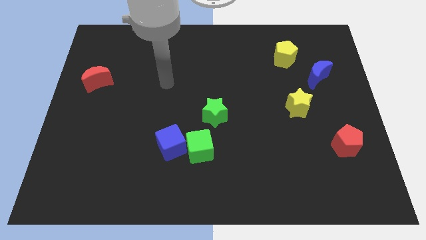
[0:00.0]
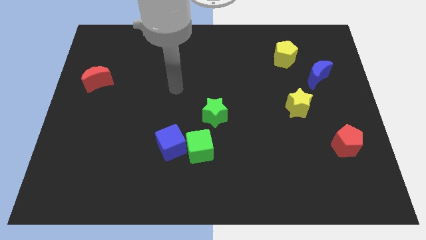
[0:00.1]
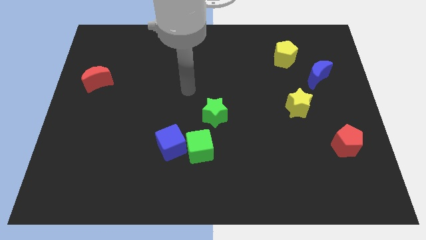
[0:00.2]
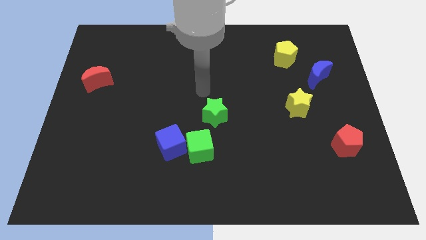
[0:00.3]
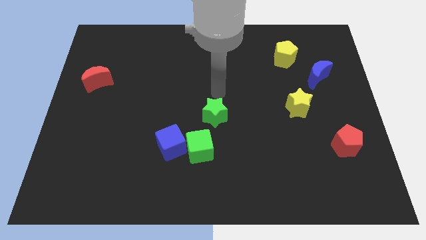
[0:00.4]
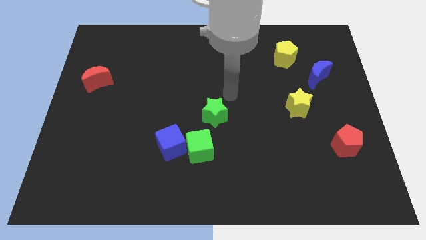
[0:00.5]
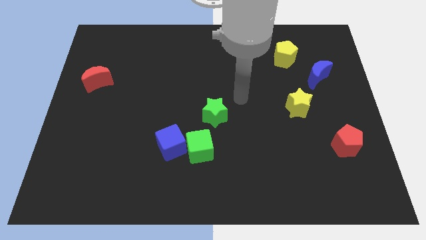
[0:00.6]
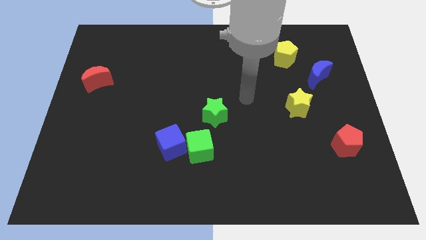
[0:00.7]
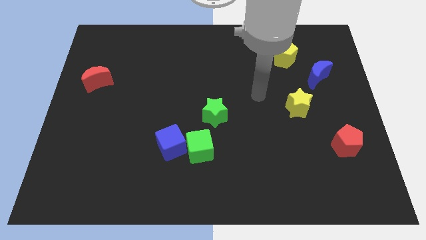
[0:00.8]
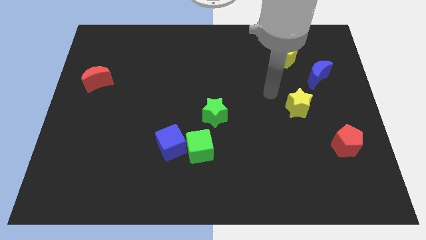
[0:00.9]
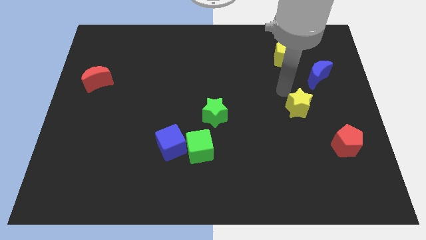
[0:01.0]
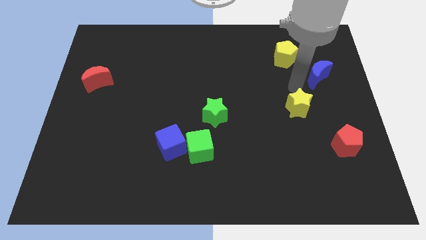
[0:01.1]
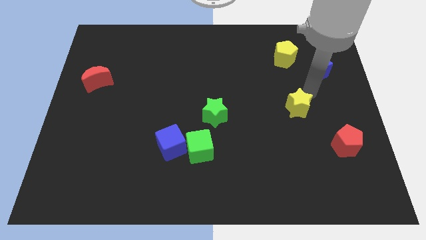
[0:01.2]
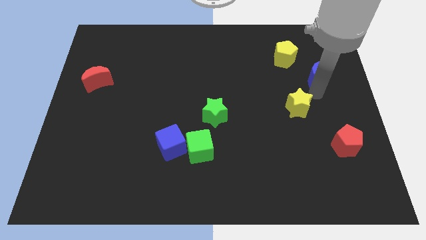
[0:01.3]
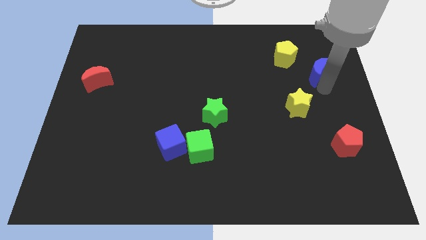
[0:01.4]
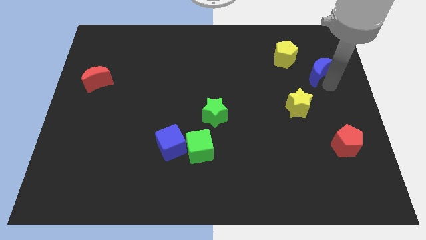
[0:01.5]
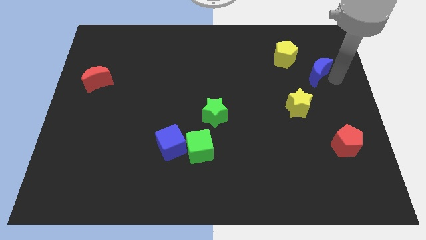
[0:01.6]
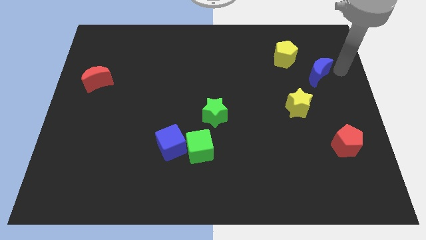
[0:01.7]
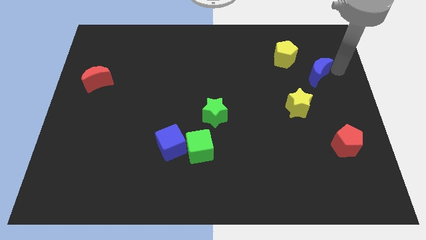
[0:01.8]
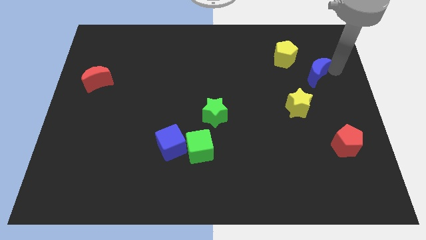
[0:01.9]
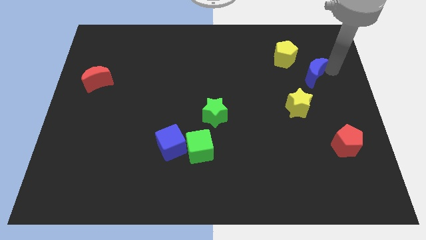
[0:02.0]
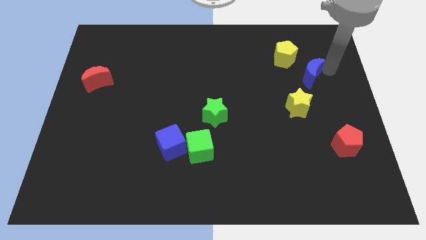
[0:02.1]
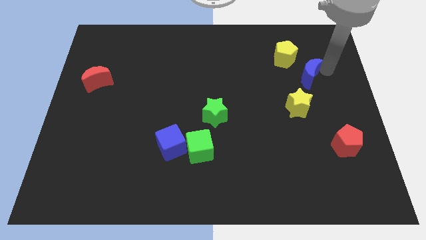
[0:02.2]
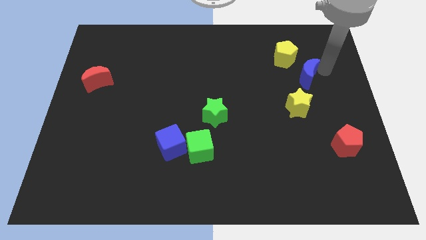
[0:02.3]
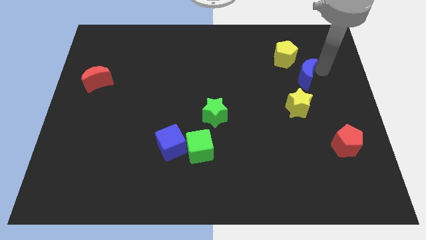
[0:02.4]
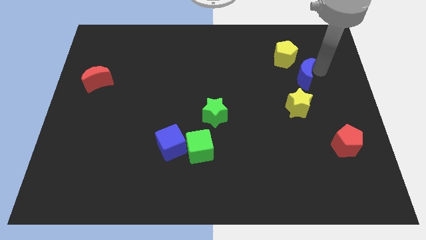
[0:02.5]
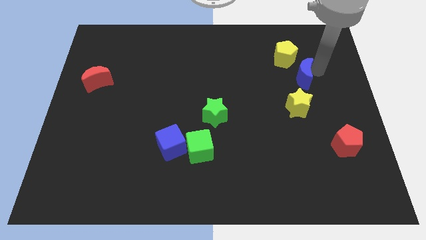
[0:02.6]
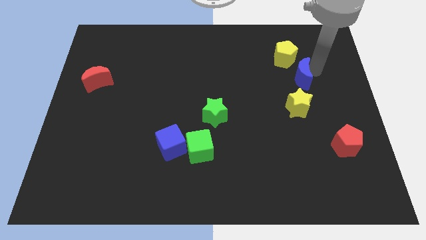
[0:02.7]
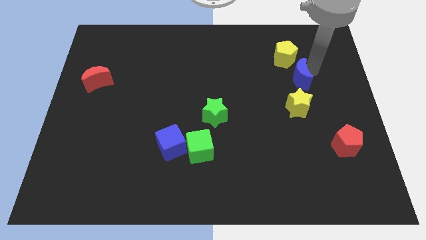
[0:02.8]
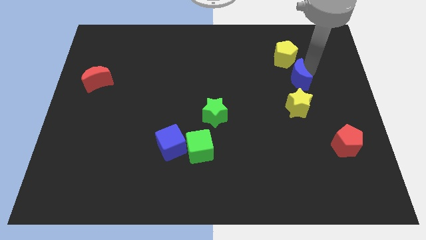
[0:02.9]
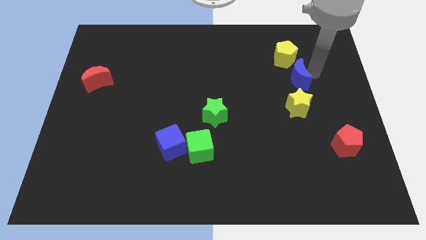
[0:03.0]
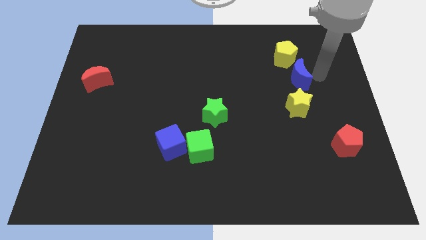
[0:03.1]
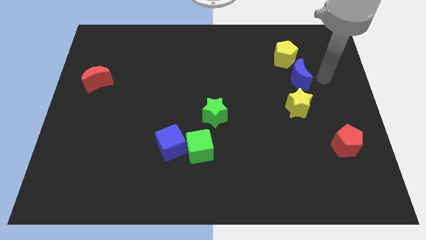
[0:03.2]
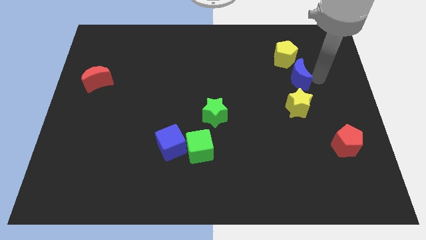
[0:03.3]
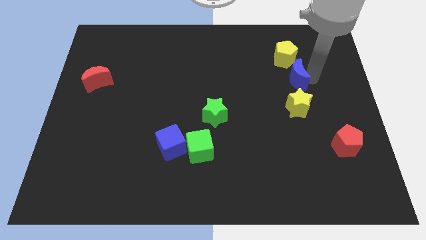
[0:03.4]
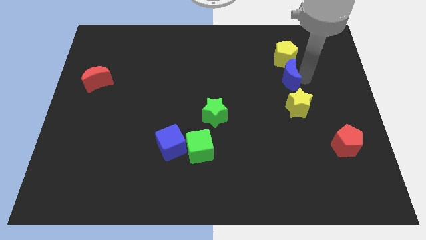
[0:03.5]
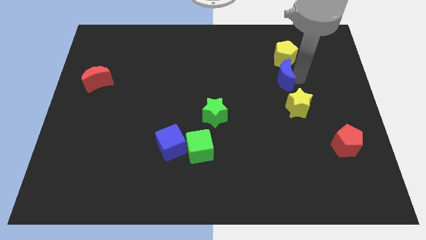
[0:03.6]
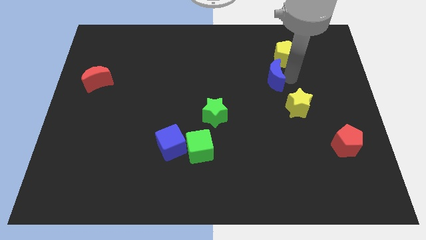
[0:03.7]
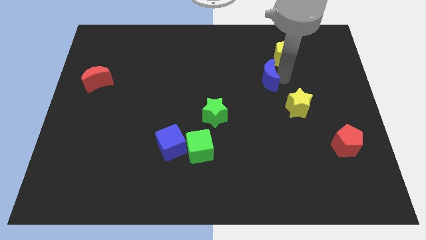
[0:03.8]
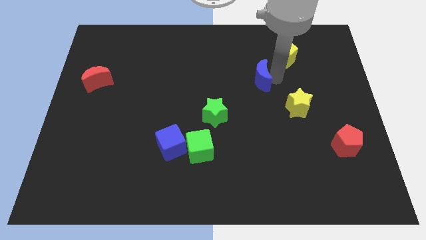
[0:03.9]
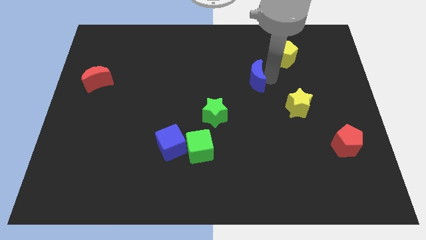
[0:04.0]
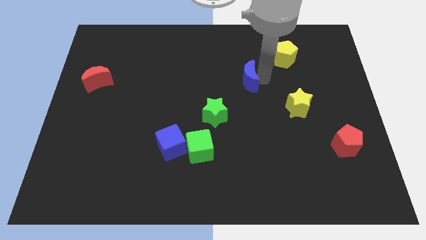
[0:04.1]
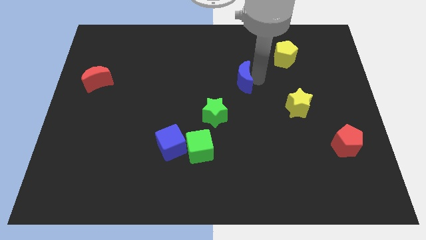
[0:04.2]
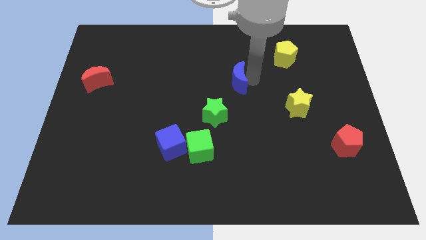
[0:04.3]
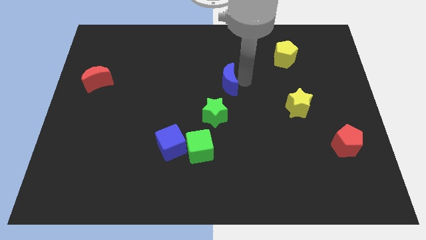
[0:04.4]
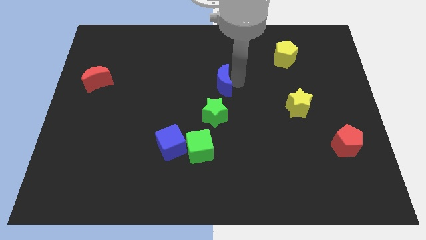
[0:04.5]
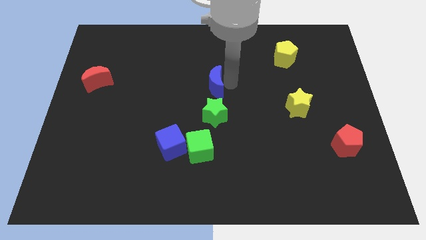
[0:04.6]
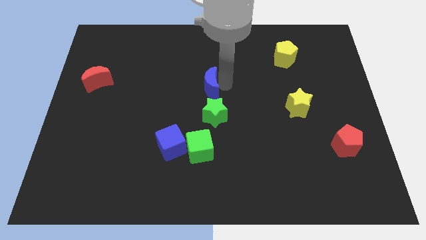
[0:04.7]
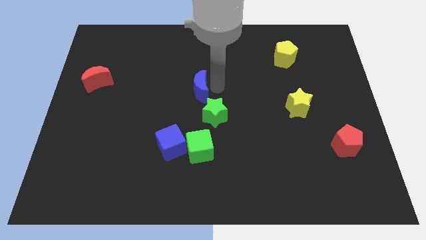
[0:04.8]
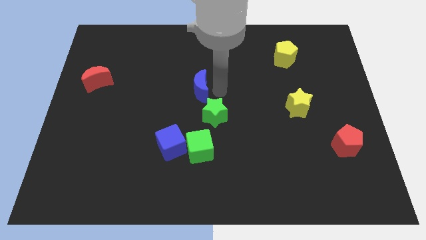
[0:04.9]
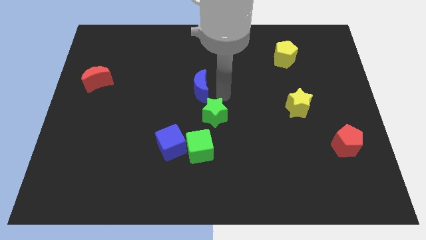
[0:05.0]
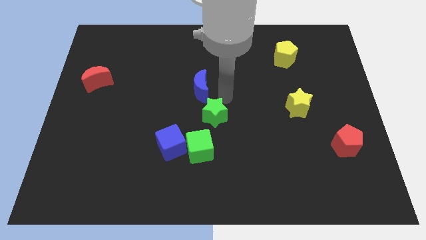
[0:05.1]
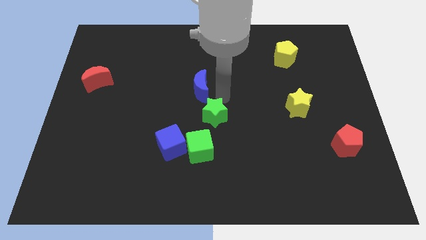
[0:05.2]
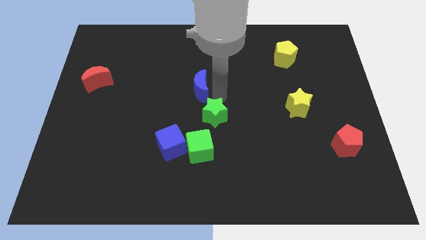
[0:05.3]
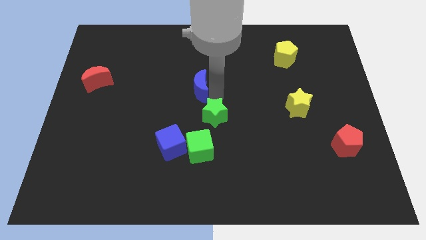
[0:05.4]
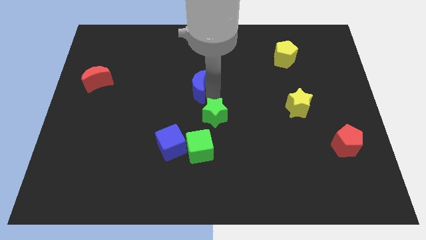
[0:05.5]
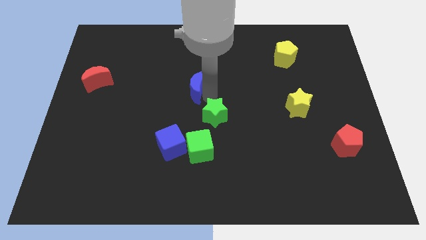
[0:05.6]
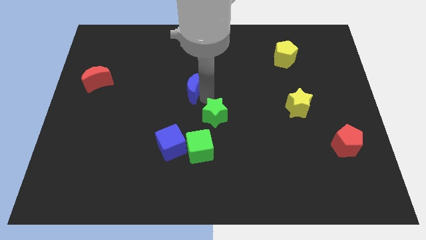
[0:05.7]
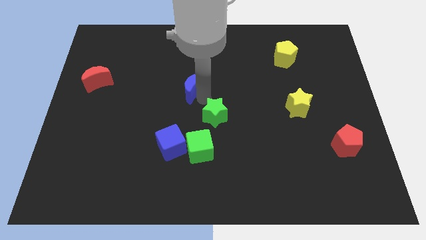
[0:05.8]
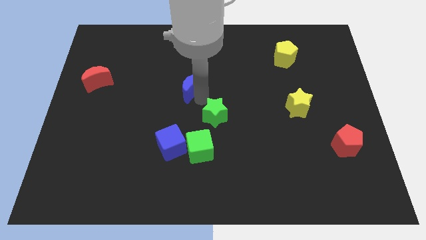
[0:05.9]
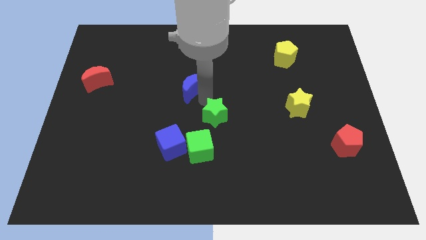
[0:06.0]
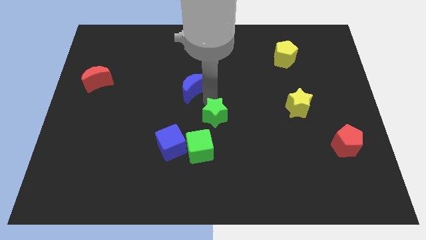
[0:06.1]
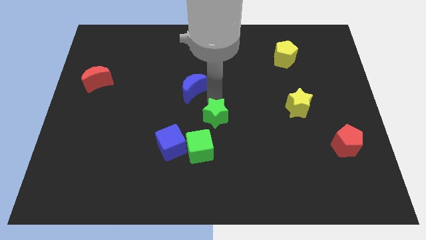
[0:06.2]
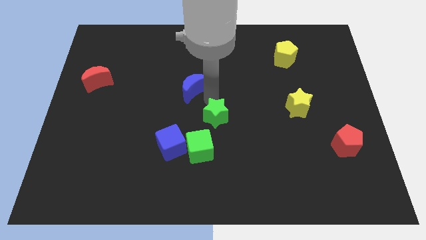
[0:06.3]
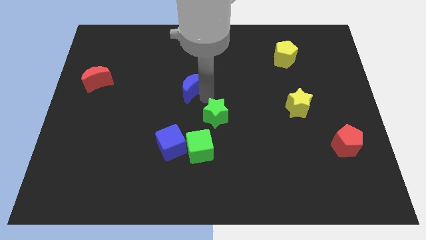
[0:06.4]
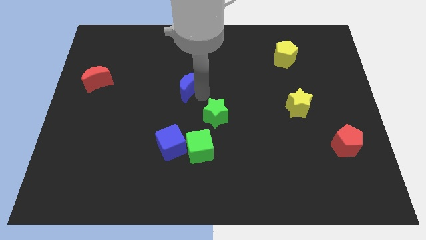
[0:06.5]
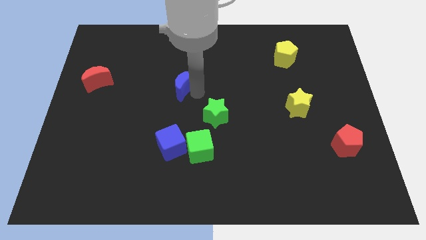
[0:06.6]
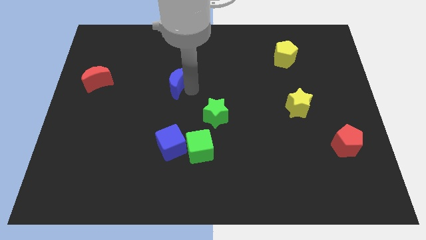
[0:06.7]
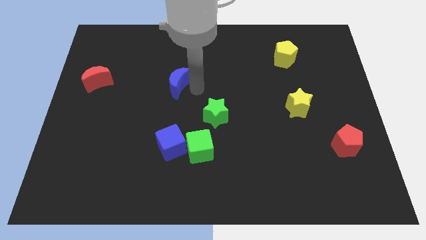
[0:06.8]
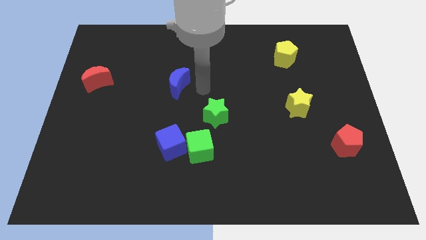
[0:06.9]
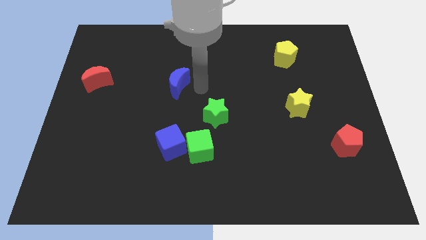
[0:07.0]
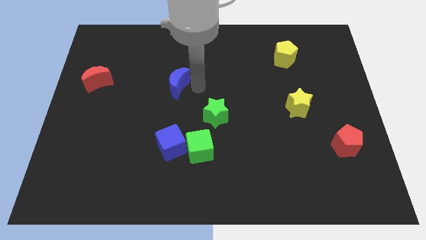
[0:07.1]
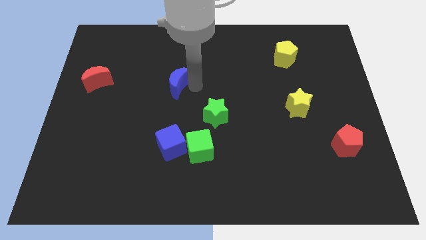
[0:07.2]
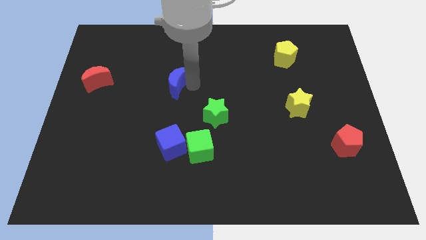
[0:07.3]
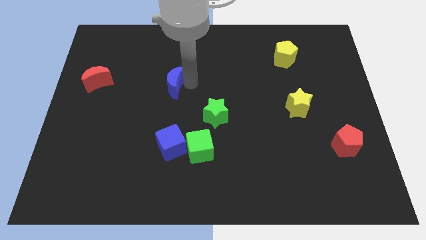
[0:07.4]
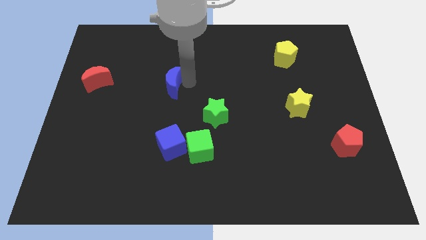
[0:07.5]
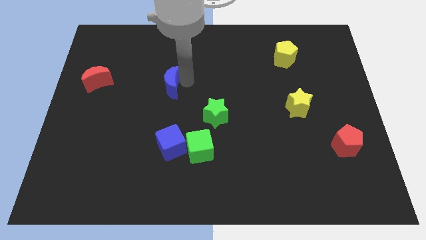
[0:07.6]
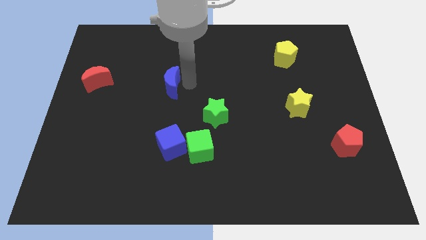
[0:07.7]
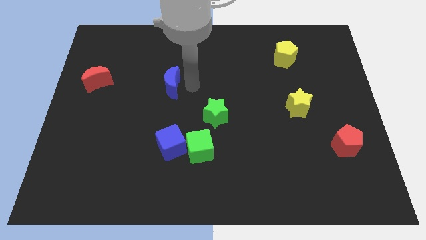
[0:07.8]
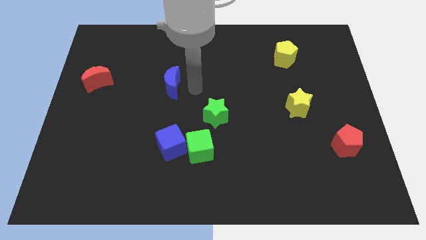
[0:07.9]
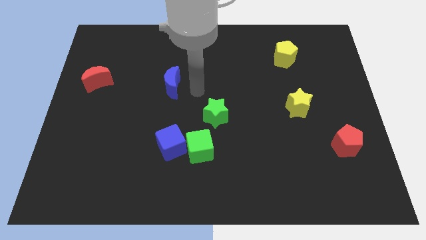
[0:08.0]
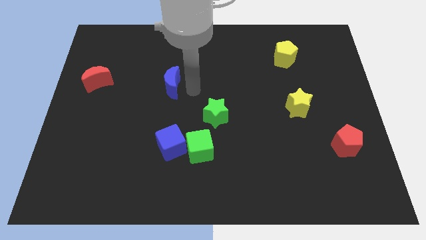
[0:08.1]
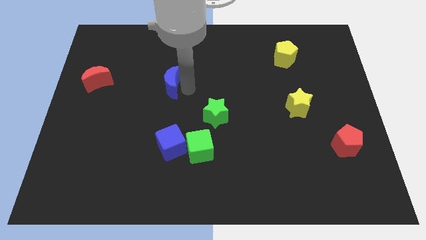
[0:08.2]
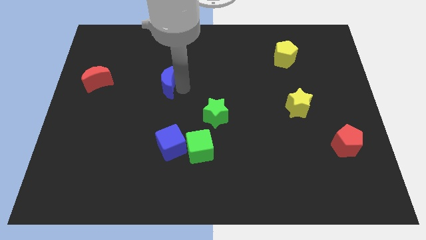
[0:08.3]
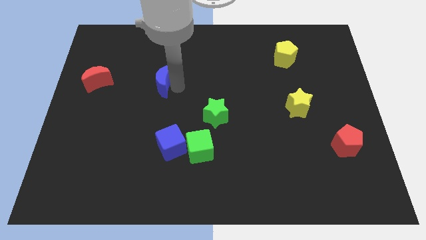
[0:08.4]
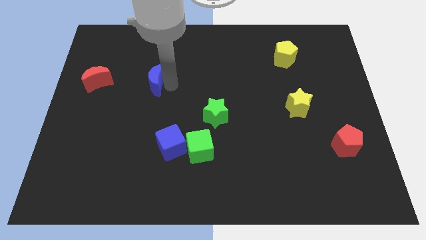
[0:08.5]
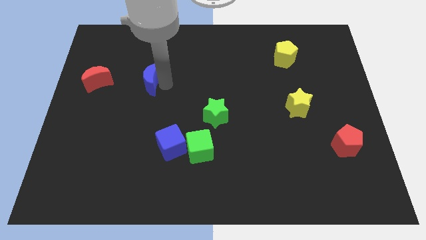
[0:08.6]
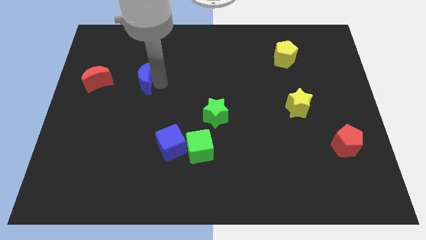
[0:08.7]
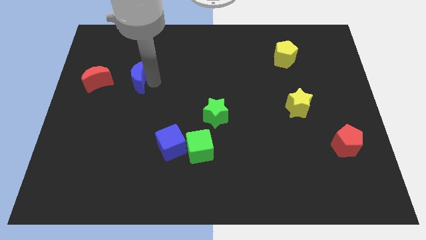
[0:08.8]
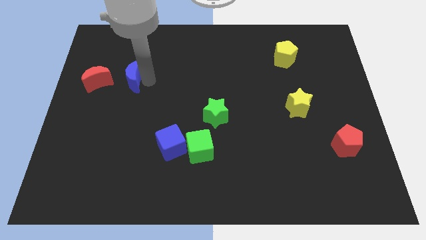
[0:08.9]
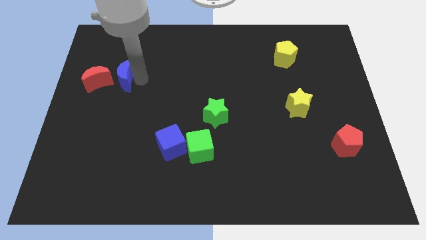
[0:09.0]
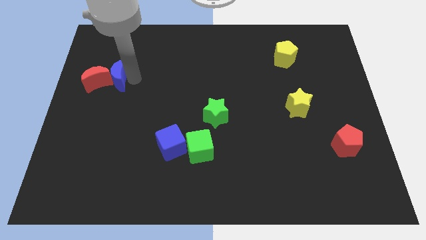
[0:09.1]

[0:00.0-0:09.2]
move the blue moon next to the red moon
